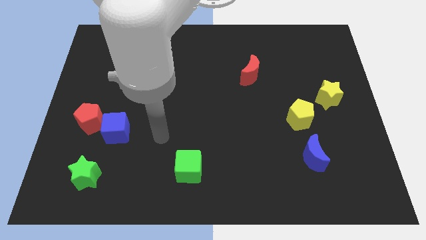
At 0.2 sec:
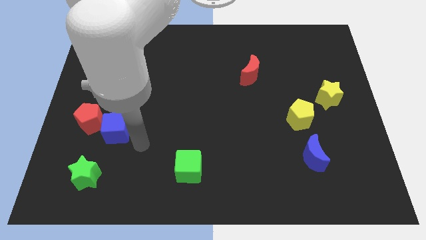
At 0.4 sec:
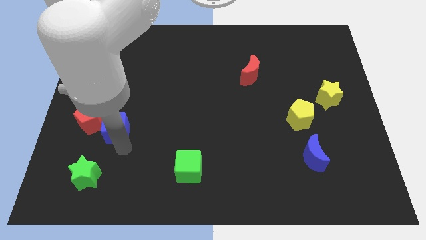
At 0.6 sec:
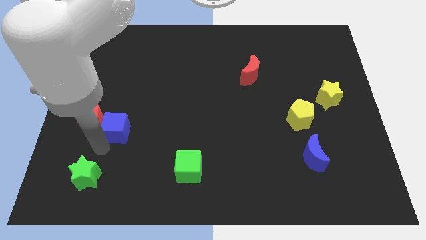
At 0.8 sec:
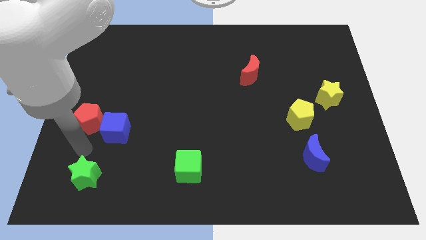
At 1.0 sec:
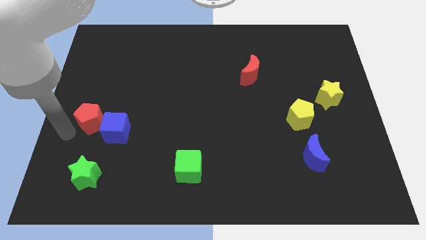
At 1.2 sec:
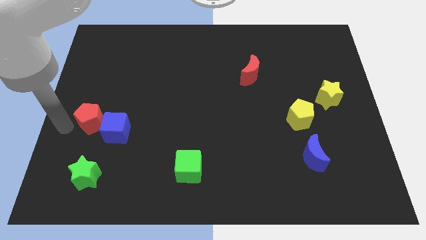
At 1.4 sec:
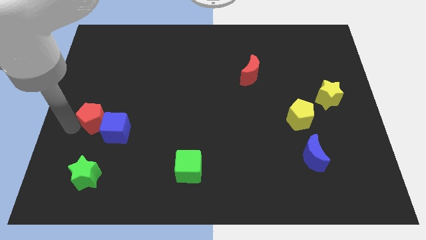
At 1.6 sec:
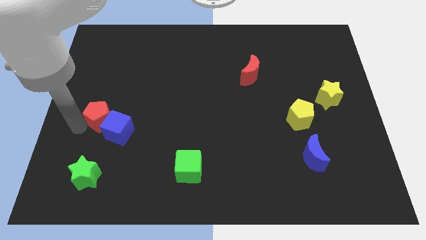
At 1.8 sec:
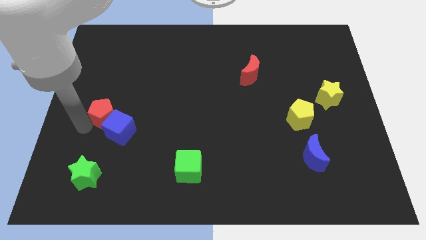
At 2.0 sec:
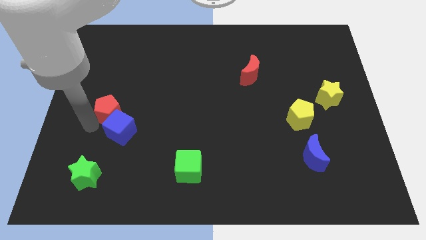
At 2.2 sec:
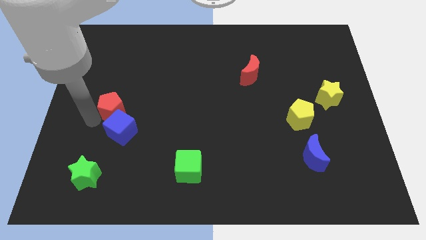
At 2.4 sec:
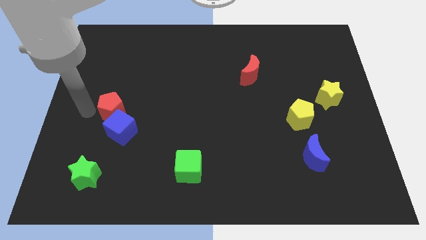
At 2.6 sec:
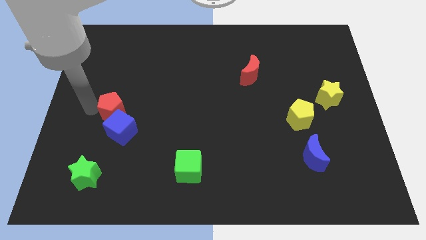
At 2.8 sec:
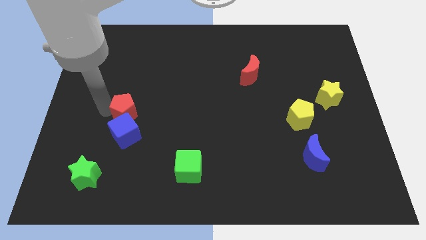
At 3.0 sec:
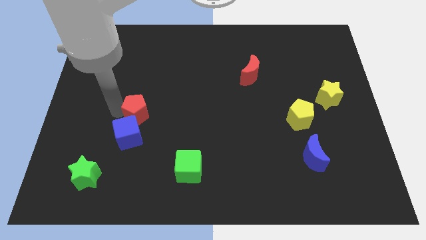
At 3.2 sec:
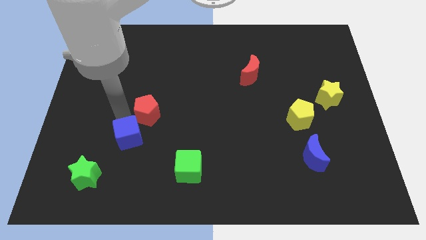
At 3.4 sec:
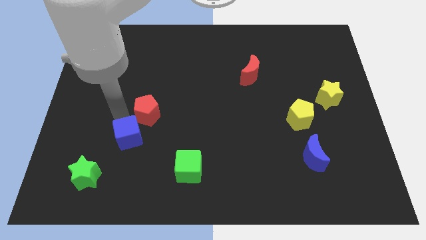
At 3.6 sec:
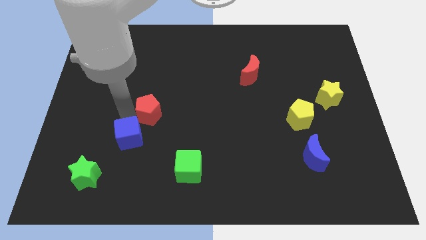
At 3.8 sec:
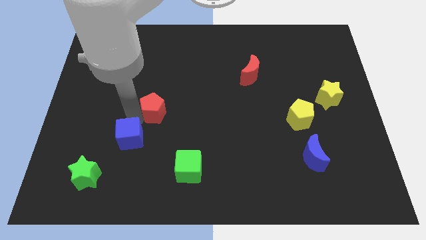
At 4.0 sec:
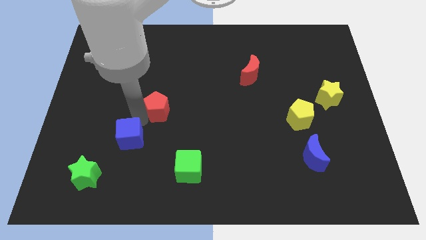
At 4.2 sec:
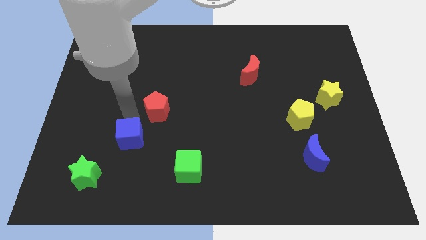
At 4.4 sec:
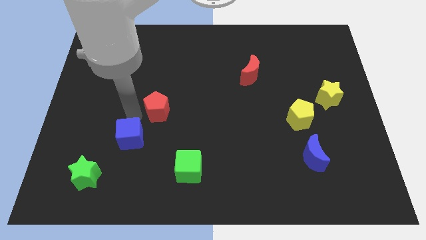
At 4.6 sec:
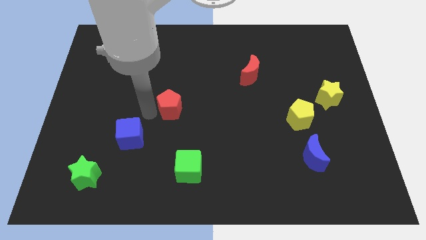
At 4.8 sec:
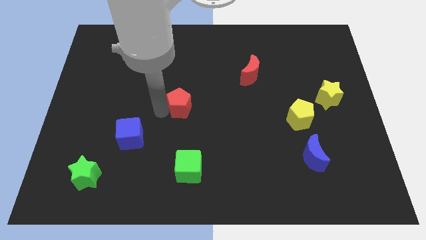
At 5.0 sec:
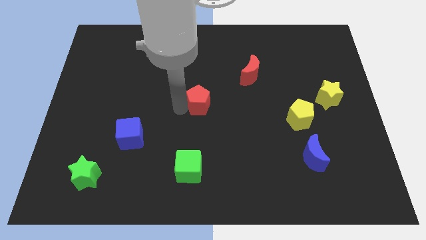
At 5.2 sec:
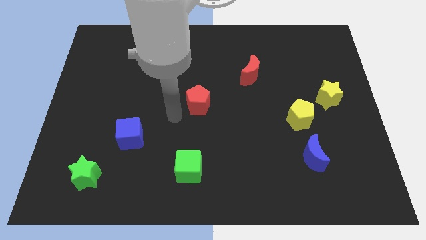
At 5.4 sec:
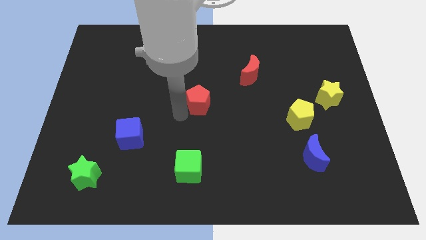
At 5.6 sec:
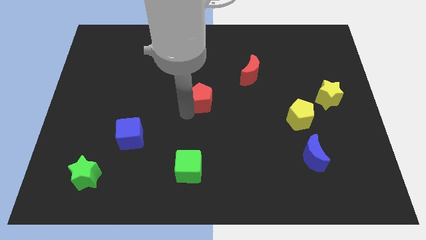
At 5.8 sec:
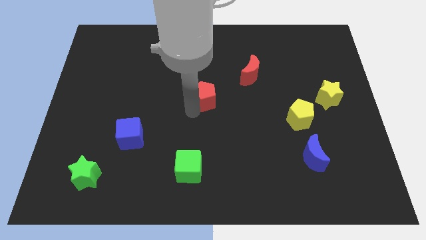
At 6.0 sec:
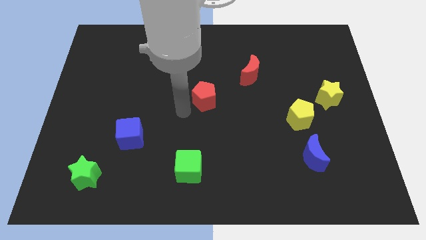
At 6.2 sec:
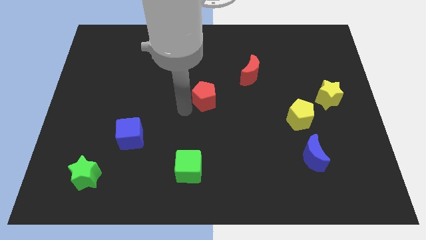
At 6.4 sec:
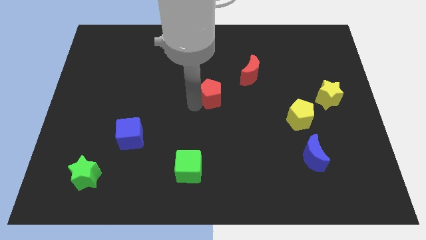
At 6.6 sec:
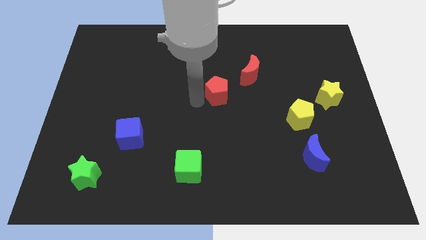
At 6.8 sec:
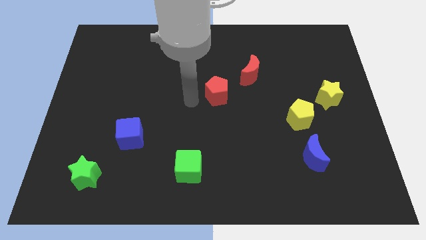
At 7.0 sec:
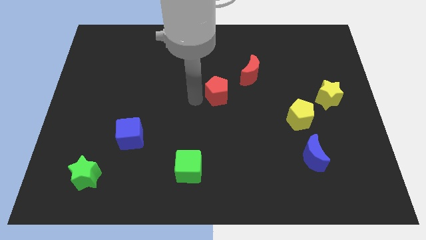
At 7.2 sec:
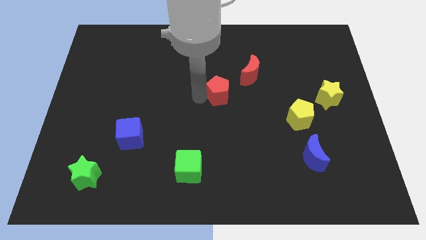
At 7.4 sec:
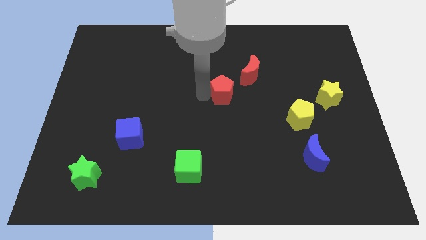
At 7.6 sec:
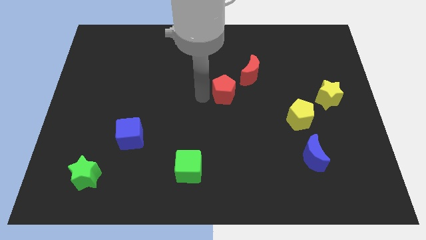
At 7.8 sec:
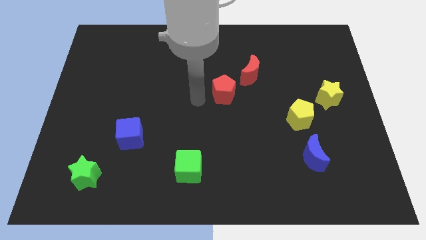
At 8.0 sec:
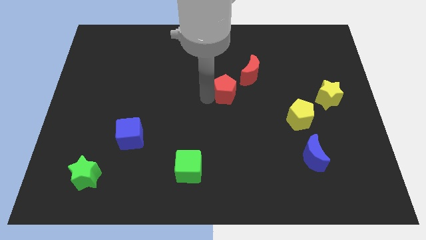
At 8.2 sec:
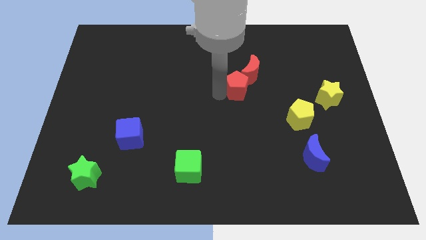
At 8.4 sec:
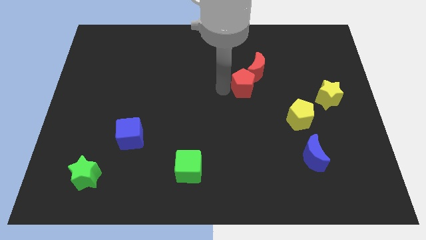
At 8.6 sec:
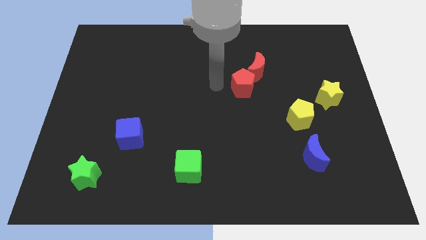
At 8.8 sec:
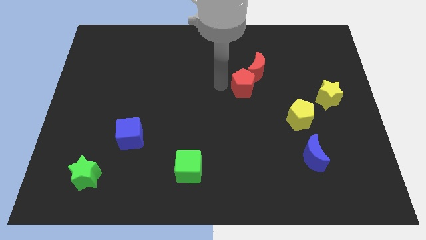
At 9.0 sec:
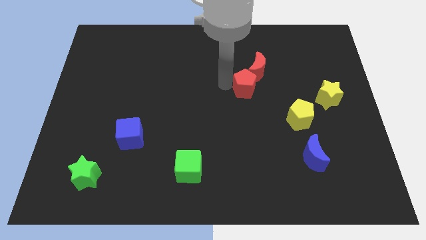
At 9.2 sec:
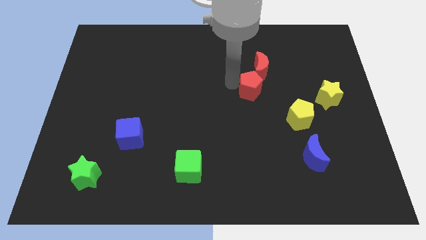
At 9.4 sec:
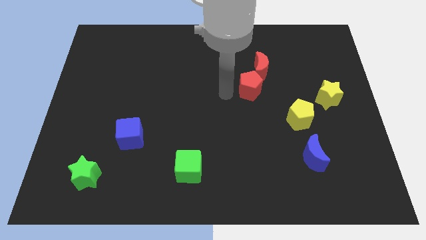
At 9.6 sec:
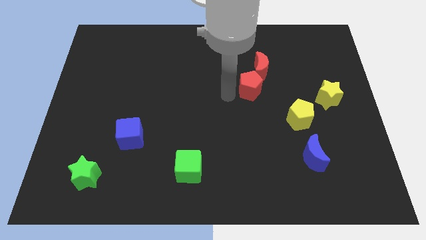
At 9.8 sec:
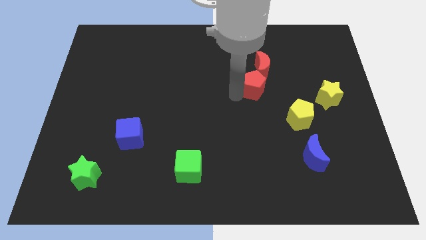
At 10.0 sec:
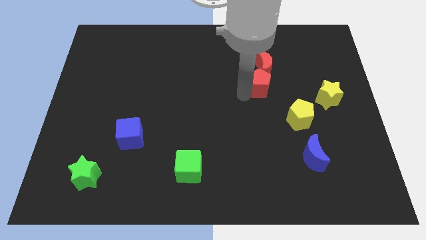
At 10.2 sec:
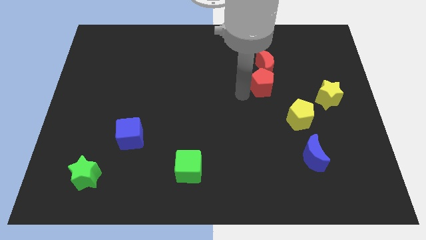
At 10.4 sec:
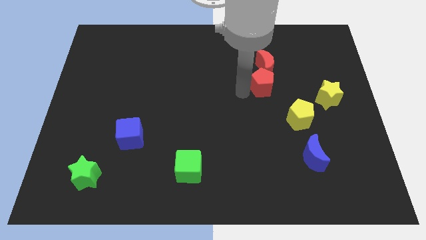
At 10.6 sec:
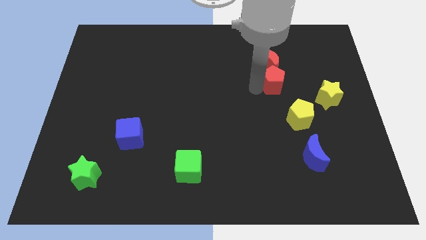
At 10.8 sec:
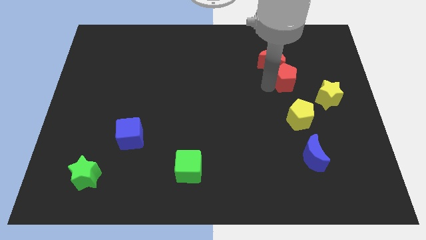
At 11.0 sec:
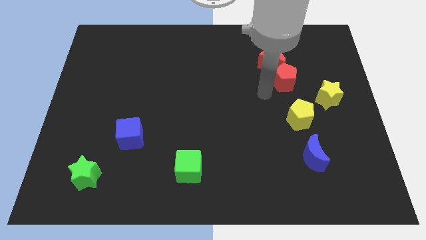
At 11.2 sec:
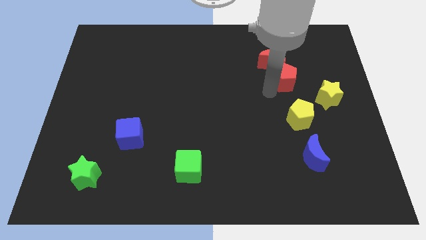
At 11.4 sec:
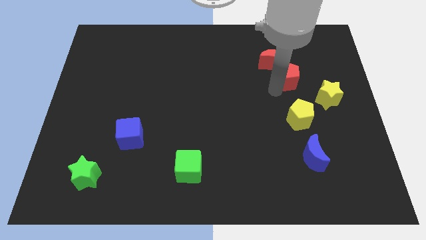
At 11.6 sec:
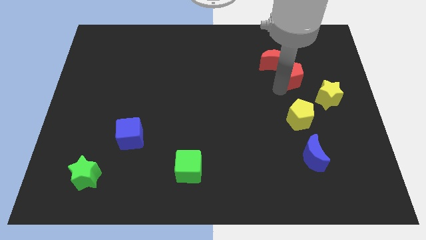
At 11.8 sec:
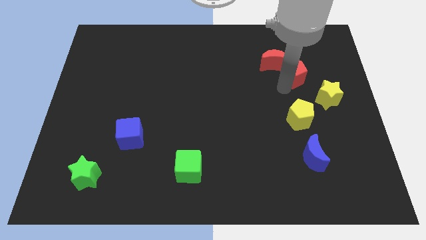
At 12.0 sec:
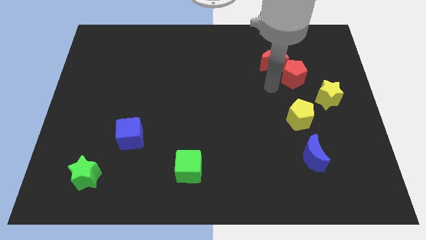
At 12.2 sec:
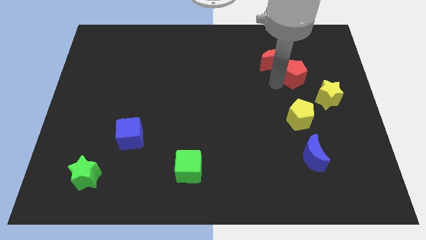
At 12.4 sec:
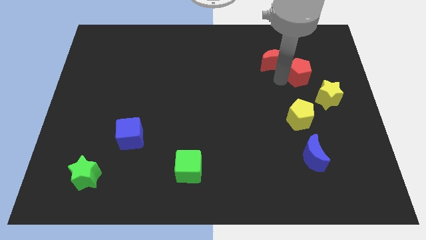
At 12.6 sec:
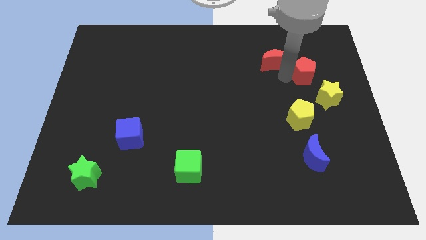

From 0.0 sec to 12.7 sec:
move the red pentagon to the top of the yellow star

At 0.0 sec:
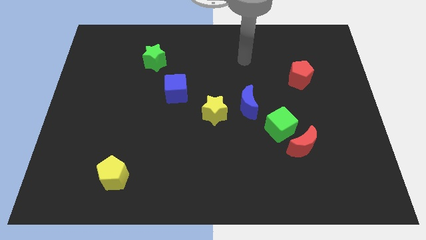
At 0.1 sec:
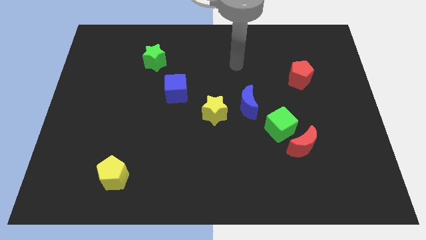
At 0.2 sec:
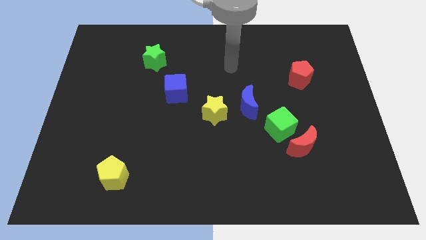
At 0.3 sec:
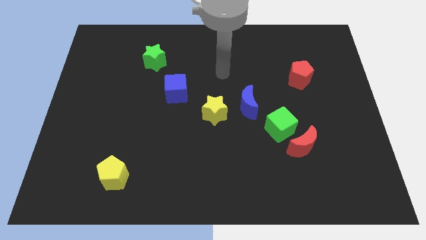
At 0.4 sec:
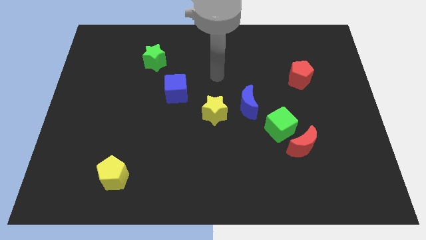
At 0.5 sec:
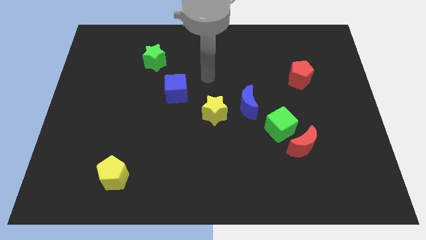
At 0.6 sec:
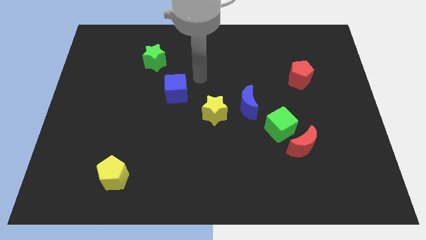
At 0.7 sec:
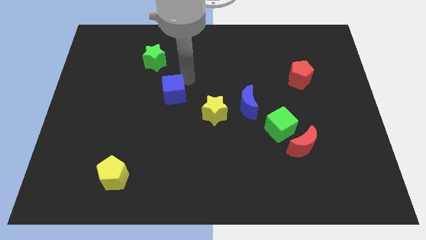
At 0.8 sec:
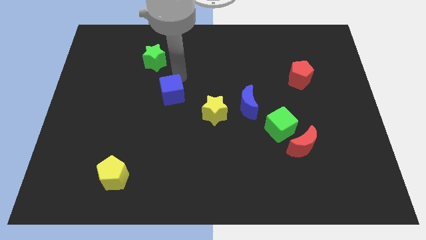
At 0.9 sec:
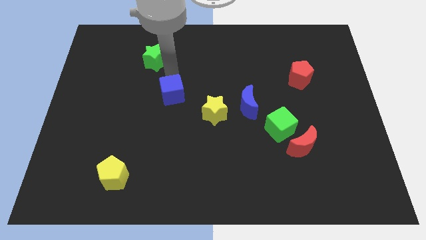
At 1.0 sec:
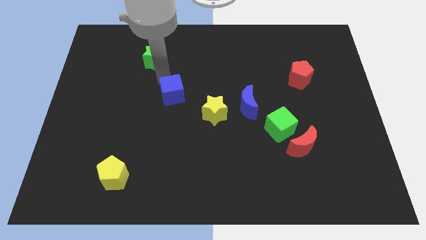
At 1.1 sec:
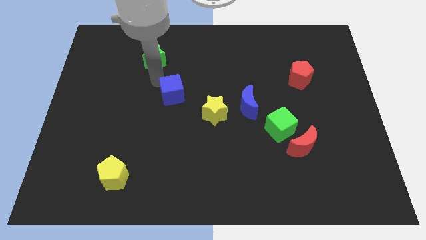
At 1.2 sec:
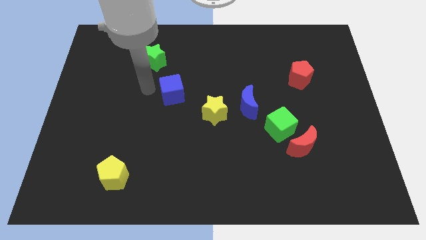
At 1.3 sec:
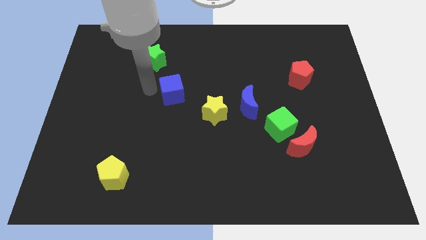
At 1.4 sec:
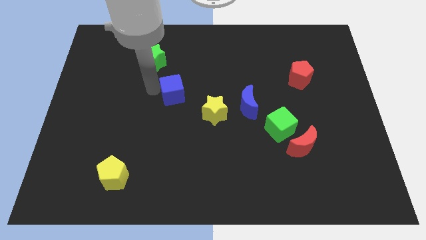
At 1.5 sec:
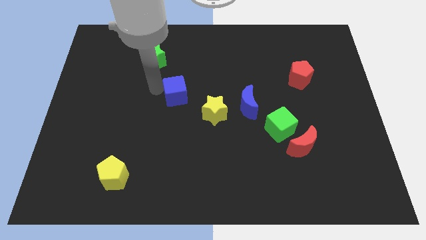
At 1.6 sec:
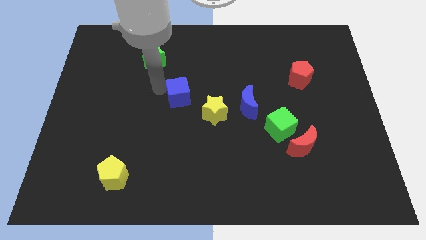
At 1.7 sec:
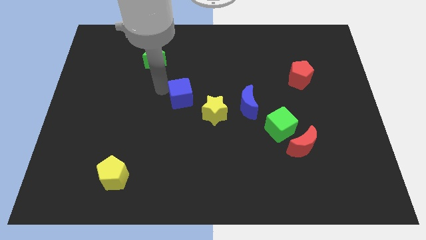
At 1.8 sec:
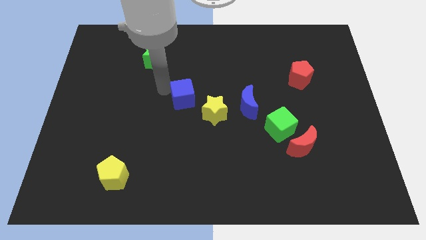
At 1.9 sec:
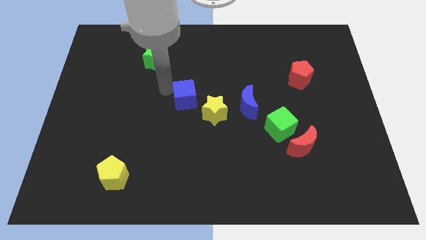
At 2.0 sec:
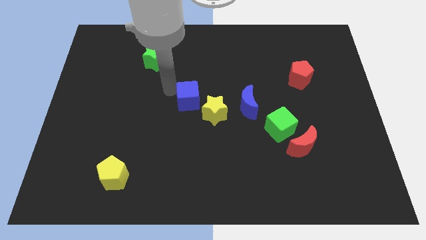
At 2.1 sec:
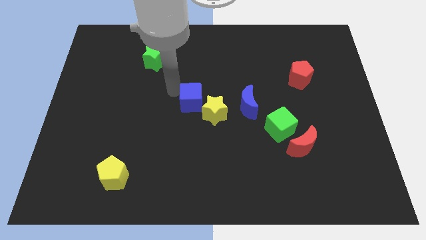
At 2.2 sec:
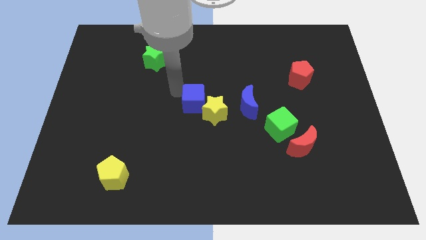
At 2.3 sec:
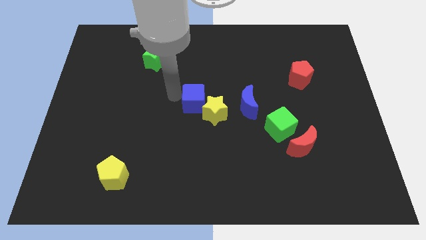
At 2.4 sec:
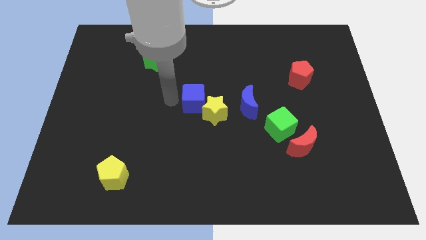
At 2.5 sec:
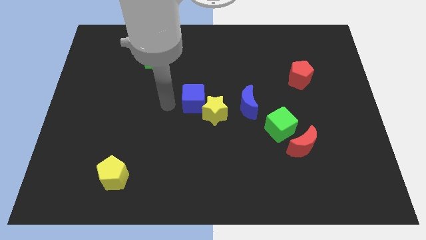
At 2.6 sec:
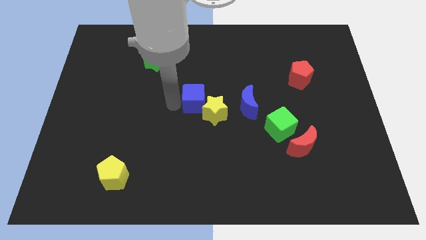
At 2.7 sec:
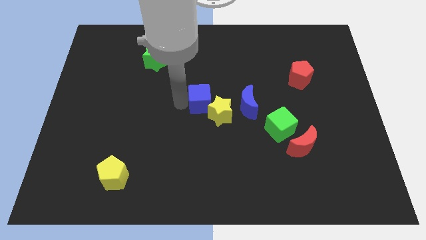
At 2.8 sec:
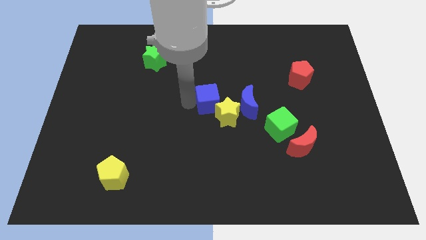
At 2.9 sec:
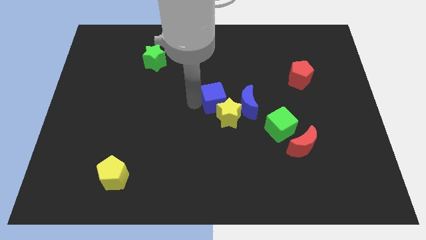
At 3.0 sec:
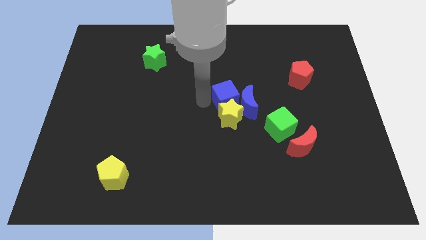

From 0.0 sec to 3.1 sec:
slide the blue cube to the top right of the yellow star
